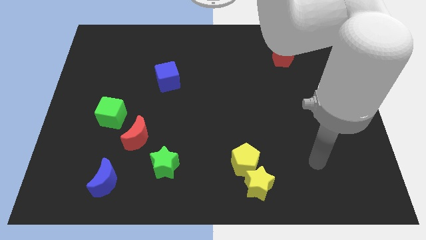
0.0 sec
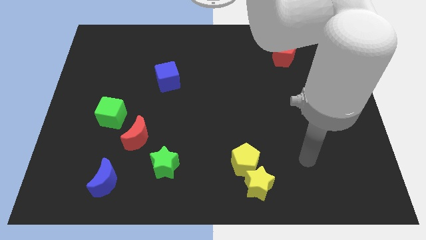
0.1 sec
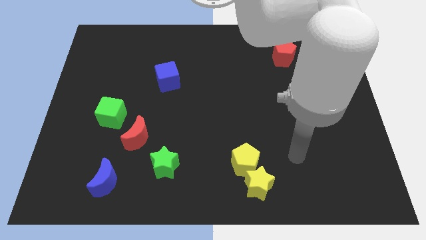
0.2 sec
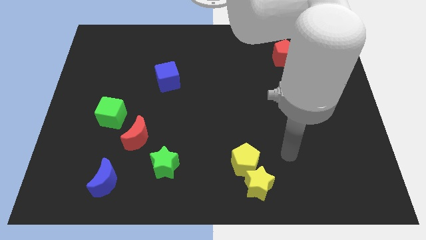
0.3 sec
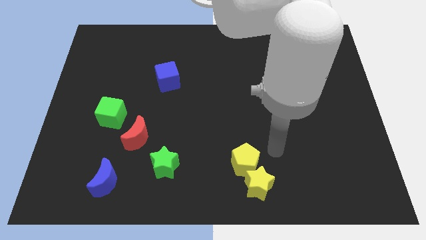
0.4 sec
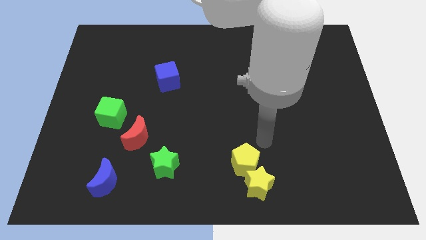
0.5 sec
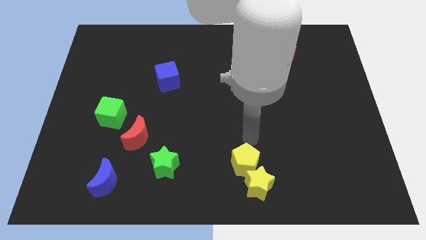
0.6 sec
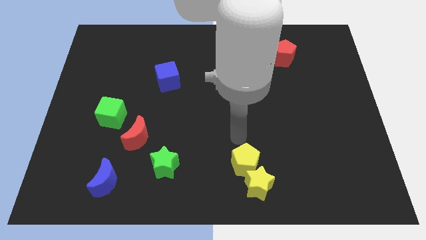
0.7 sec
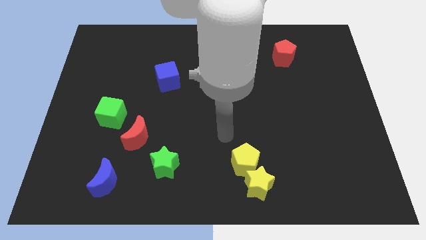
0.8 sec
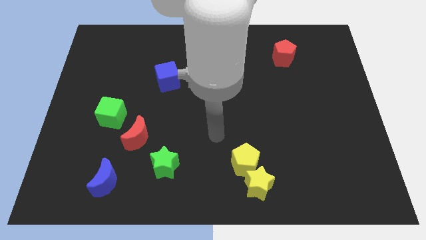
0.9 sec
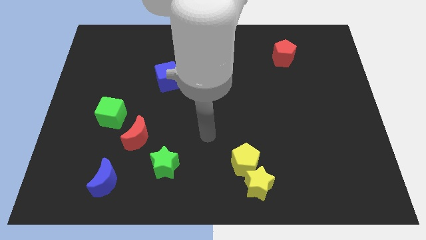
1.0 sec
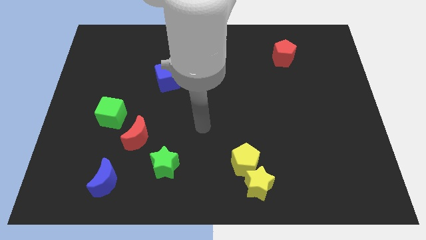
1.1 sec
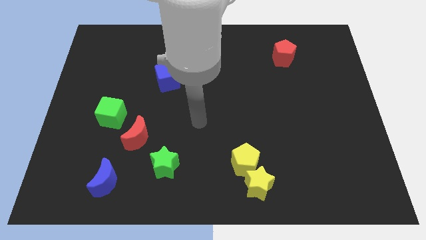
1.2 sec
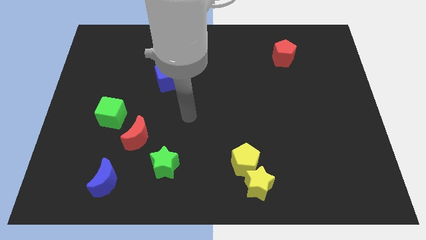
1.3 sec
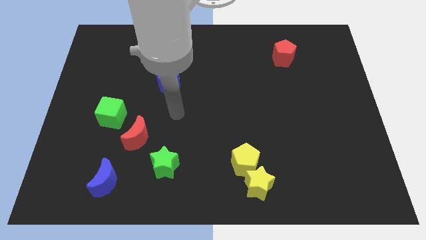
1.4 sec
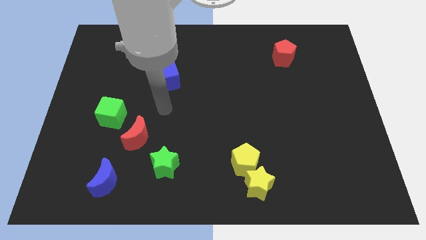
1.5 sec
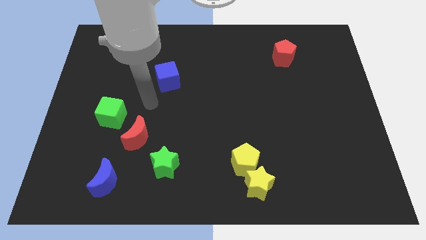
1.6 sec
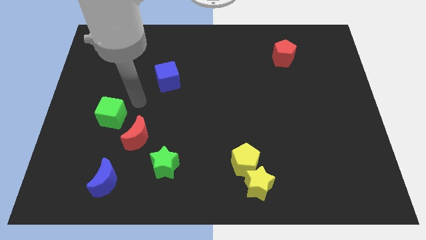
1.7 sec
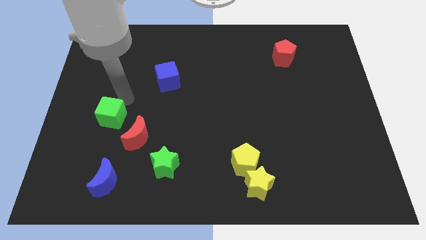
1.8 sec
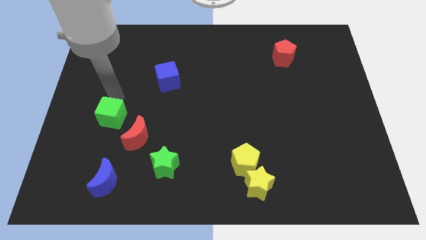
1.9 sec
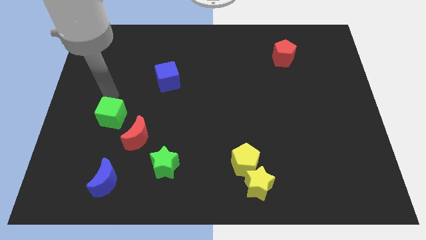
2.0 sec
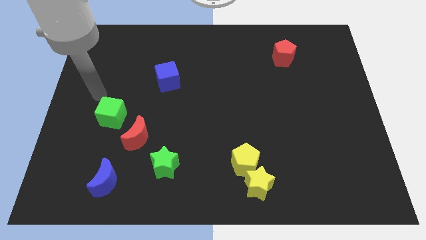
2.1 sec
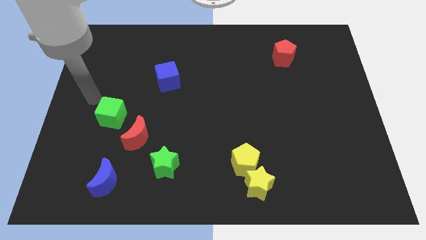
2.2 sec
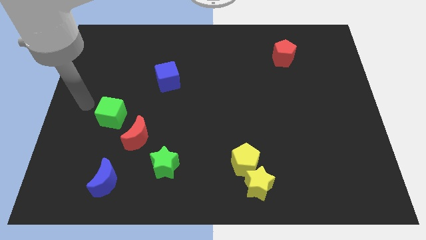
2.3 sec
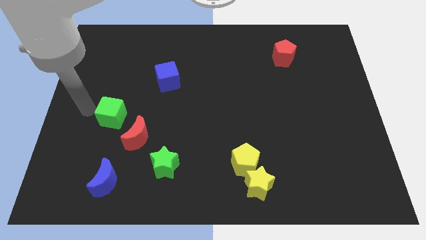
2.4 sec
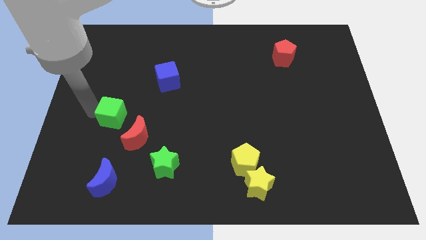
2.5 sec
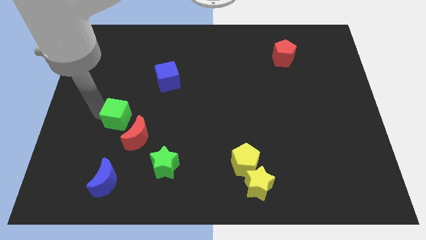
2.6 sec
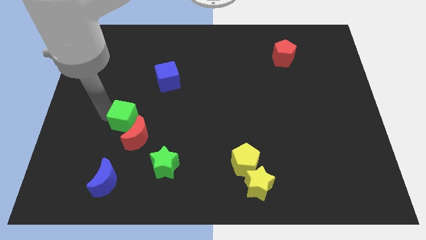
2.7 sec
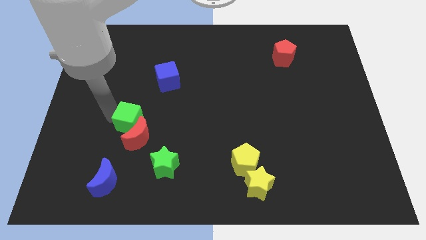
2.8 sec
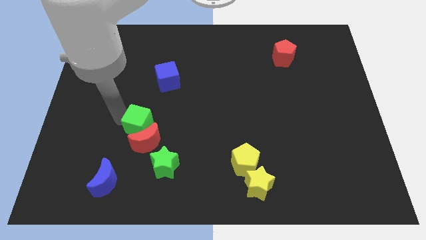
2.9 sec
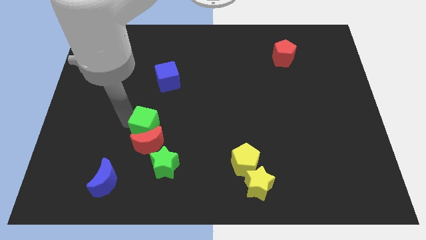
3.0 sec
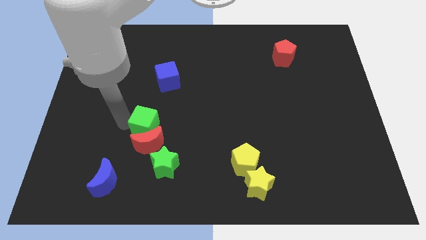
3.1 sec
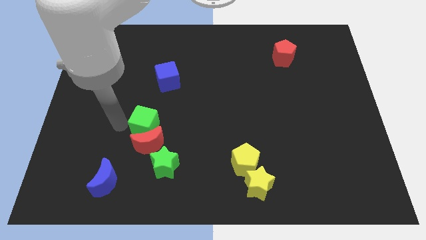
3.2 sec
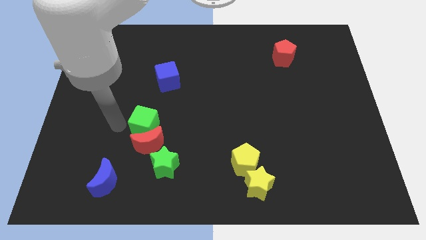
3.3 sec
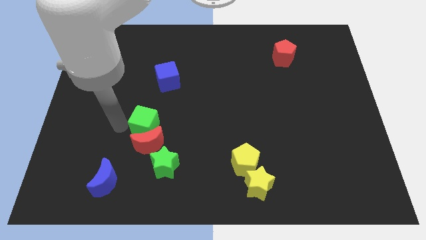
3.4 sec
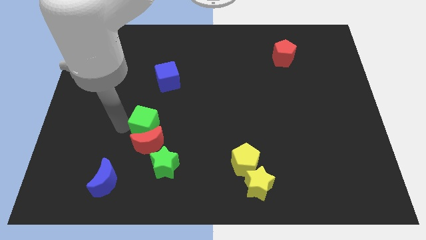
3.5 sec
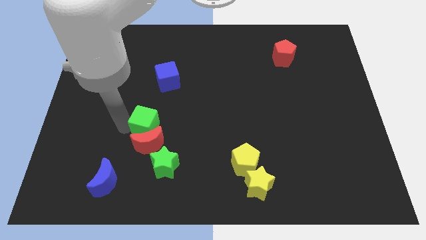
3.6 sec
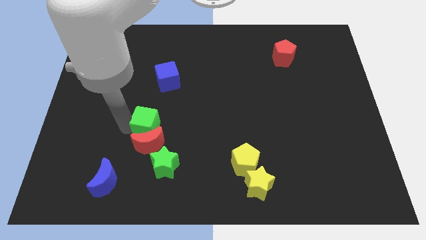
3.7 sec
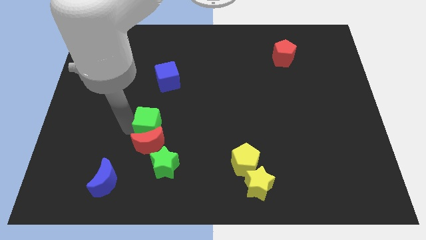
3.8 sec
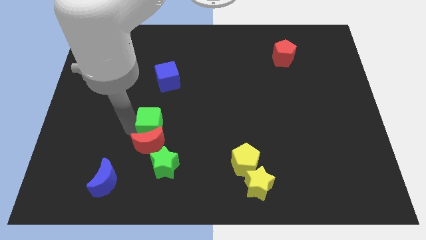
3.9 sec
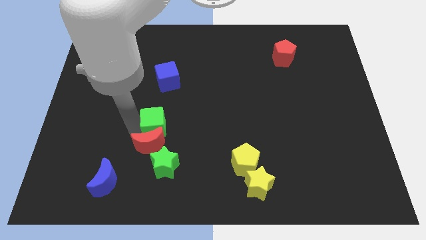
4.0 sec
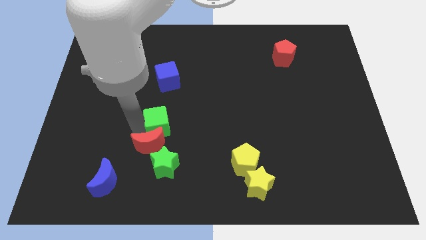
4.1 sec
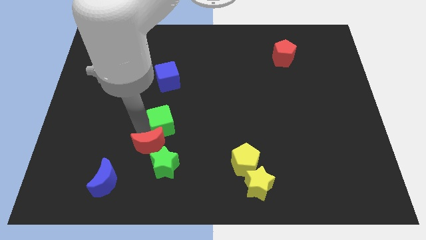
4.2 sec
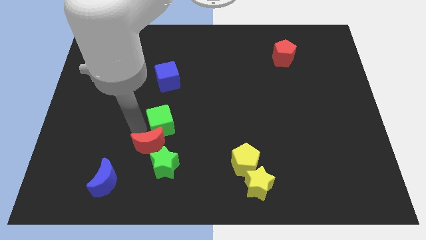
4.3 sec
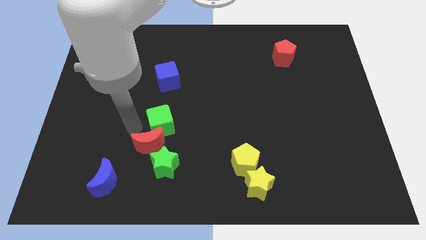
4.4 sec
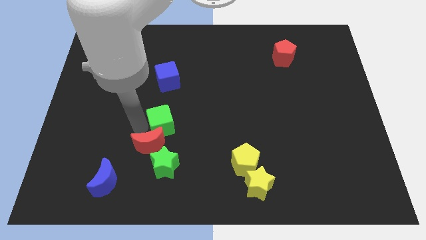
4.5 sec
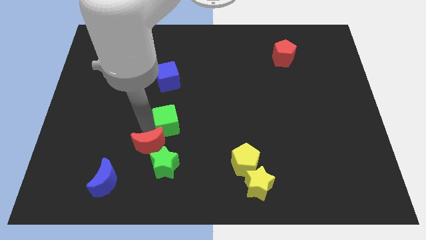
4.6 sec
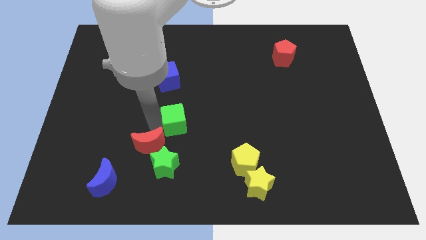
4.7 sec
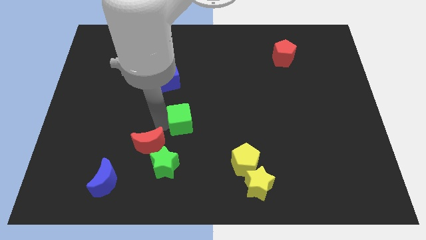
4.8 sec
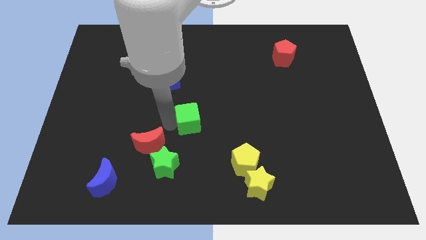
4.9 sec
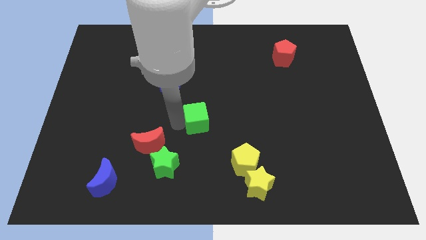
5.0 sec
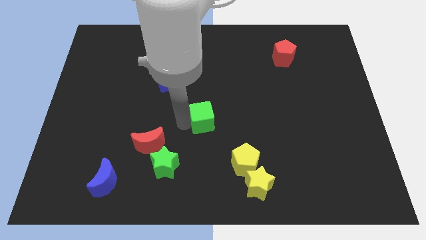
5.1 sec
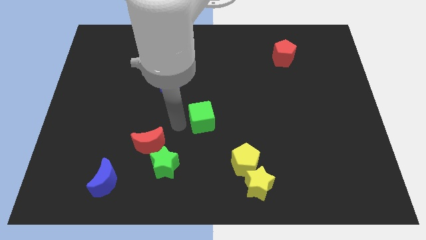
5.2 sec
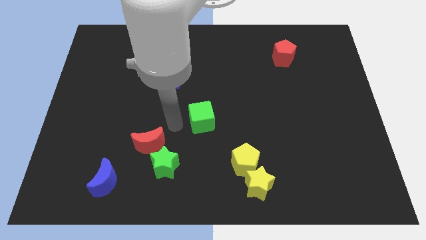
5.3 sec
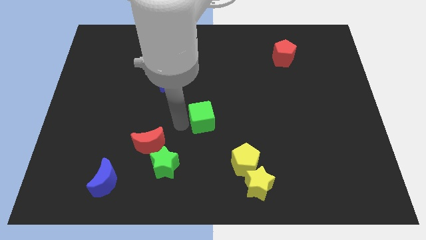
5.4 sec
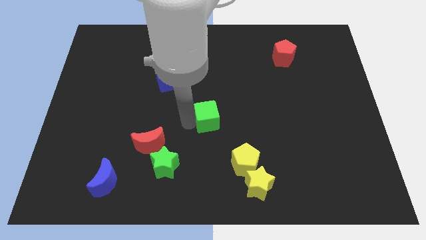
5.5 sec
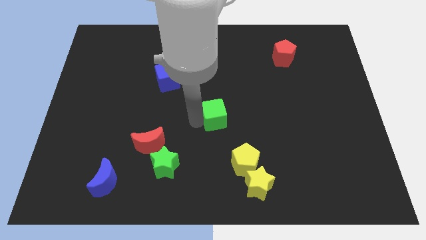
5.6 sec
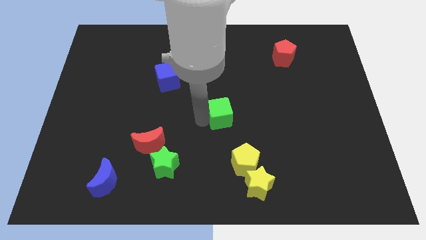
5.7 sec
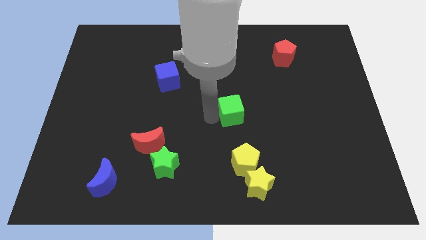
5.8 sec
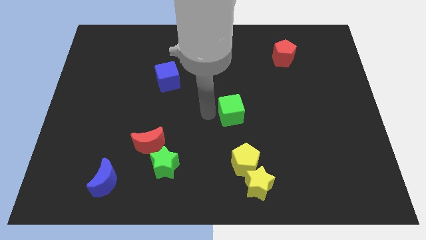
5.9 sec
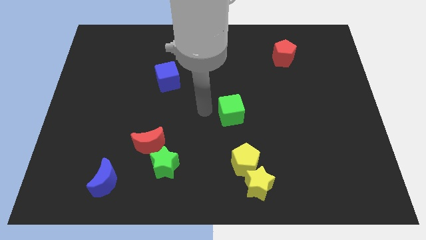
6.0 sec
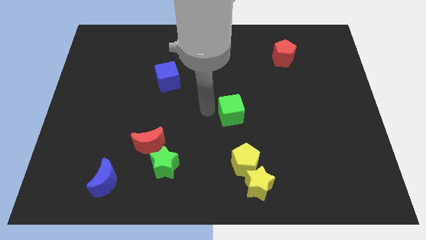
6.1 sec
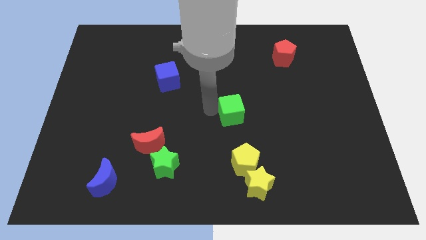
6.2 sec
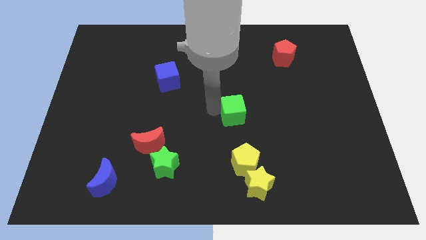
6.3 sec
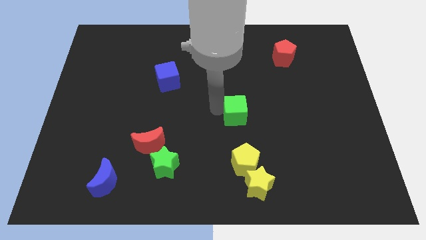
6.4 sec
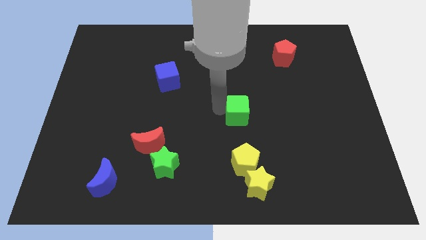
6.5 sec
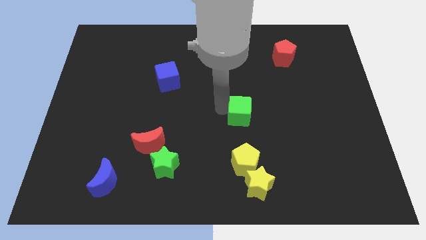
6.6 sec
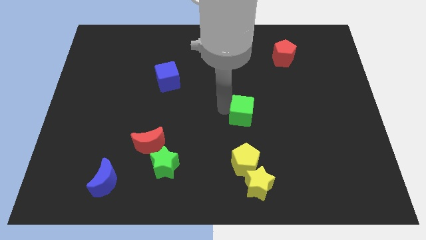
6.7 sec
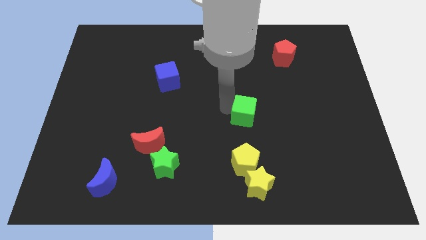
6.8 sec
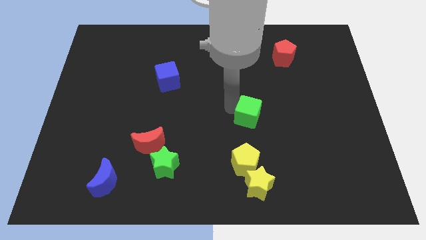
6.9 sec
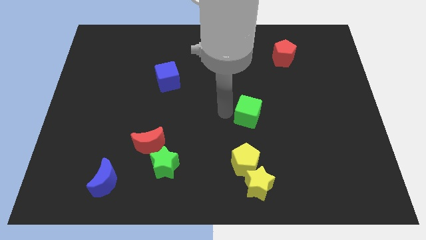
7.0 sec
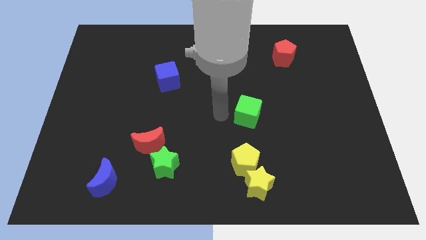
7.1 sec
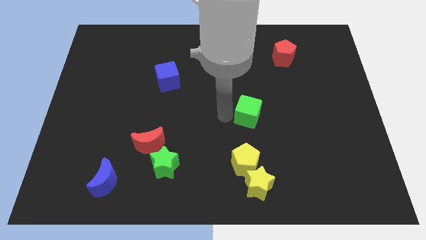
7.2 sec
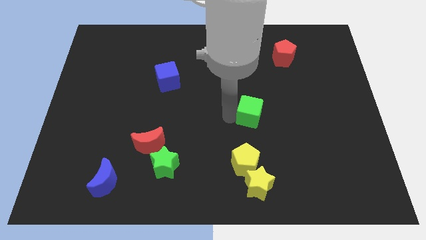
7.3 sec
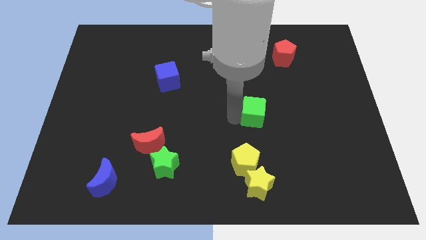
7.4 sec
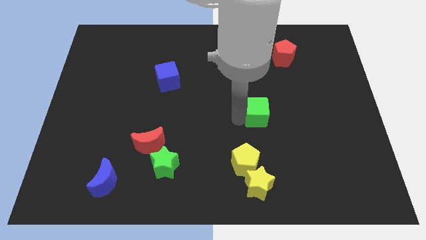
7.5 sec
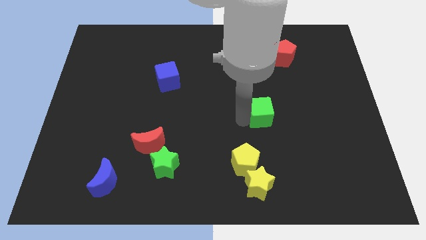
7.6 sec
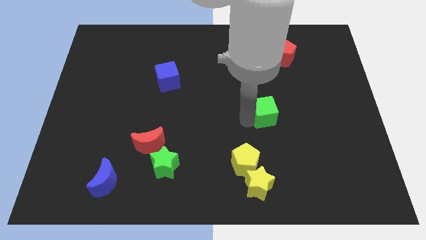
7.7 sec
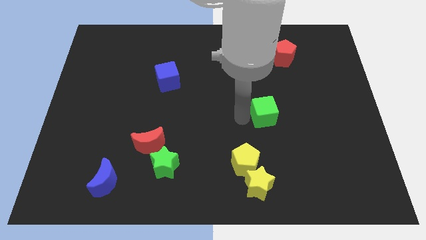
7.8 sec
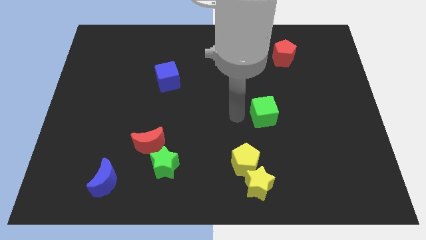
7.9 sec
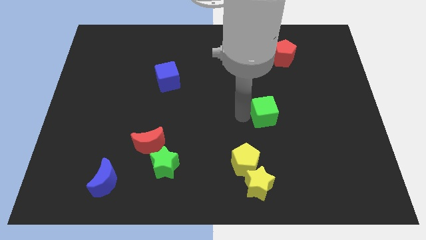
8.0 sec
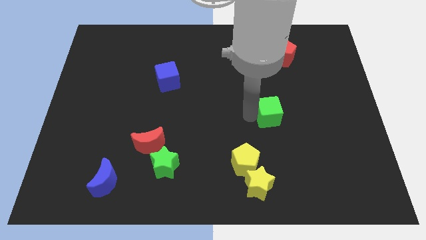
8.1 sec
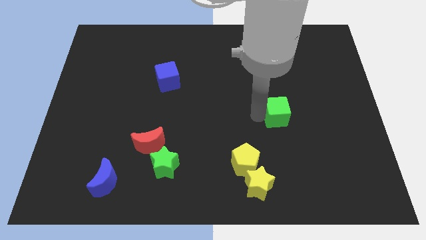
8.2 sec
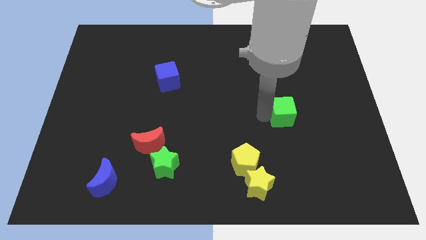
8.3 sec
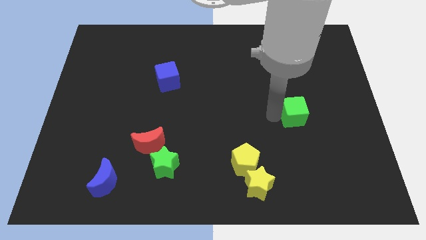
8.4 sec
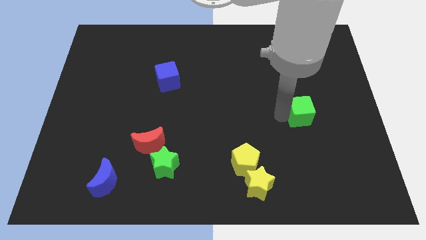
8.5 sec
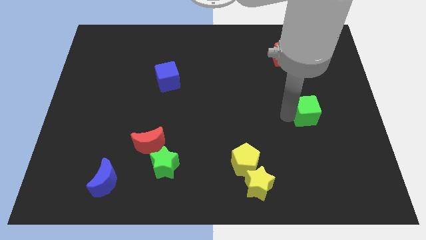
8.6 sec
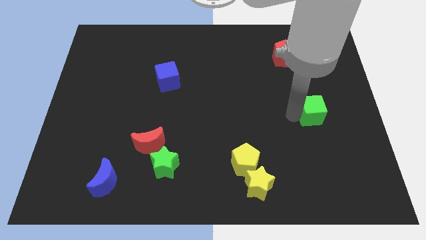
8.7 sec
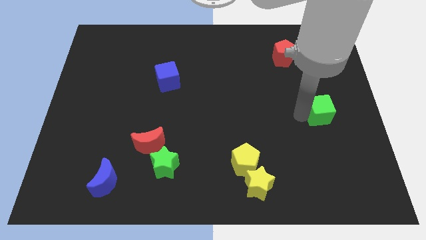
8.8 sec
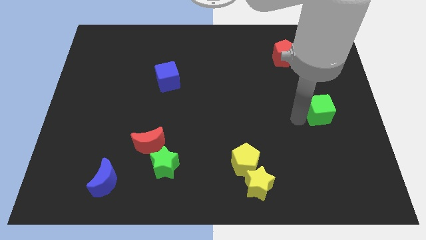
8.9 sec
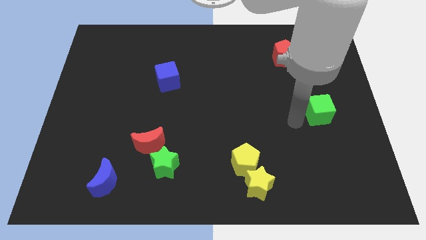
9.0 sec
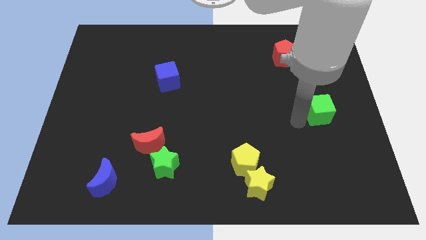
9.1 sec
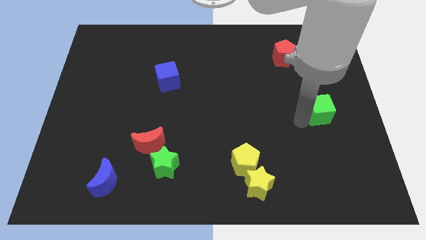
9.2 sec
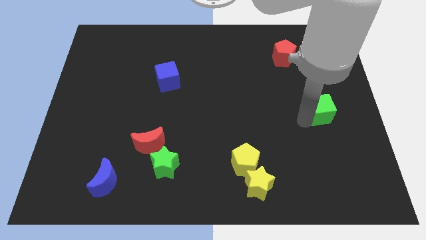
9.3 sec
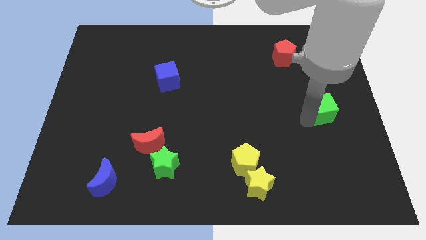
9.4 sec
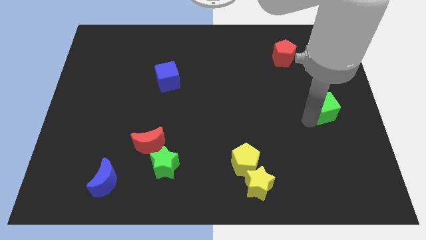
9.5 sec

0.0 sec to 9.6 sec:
push the green cube to the center right
